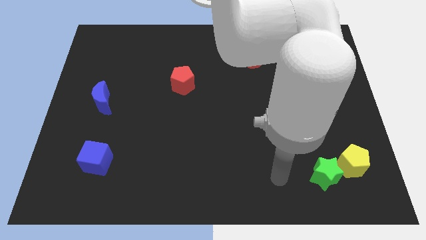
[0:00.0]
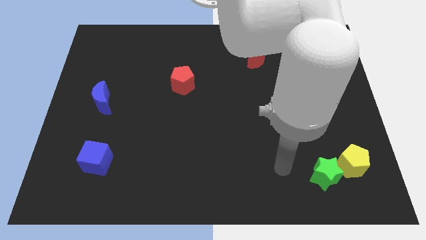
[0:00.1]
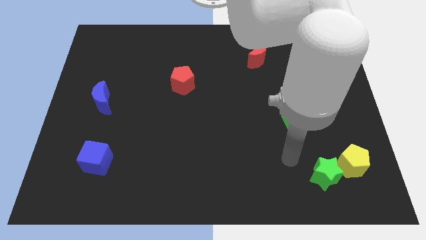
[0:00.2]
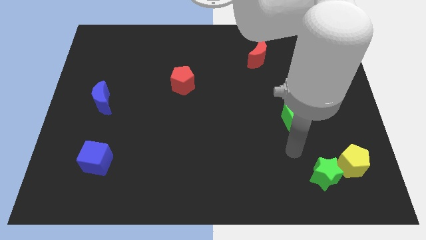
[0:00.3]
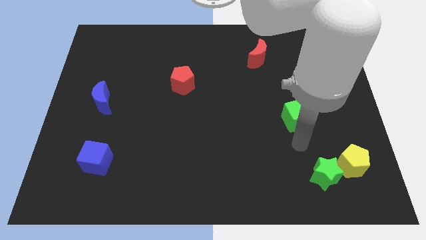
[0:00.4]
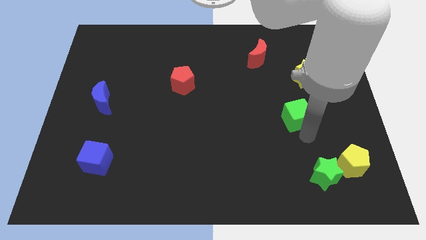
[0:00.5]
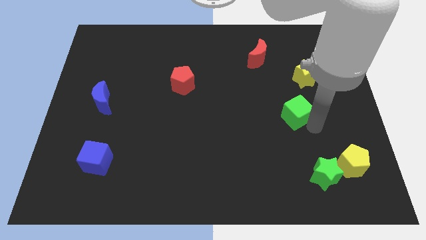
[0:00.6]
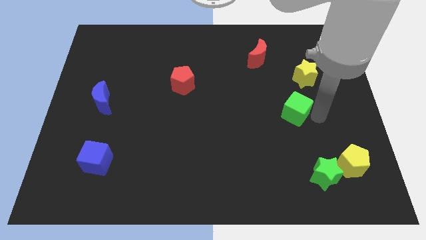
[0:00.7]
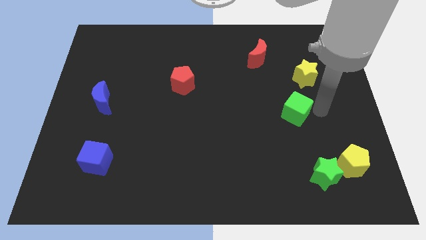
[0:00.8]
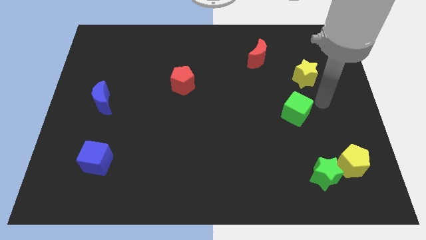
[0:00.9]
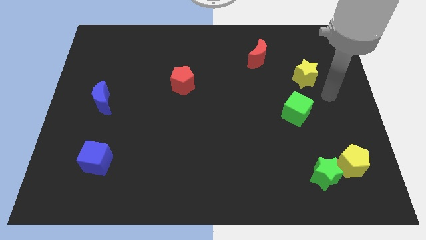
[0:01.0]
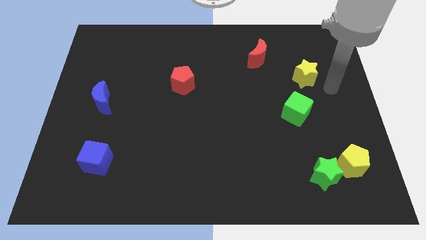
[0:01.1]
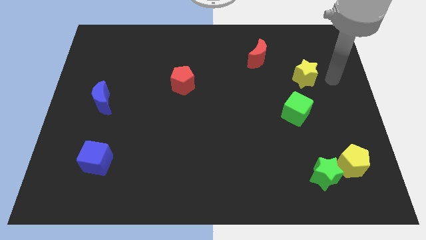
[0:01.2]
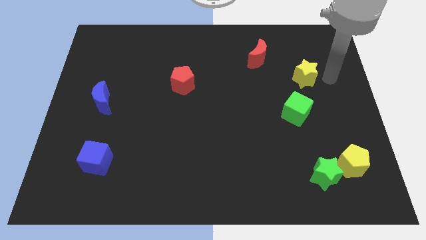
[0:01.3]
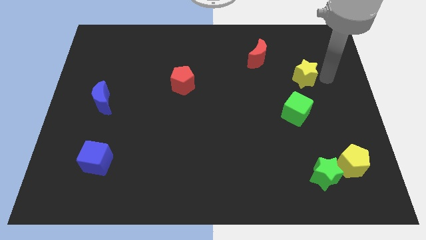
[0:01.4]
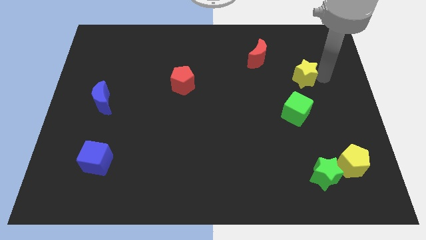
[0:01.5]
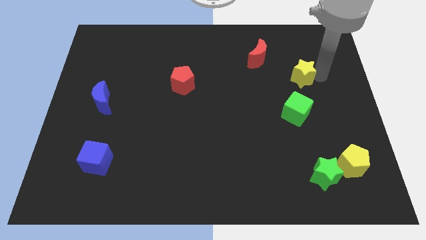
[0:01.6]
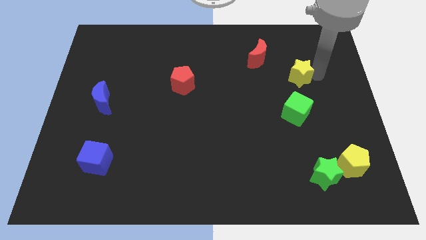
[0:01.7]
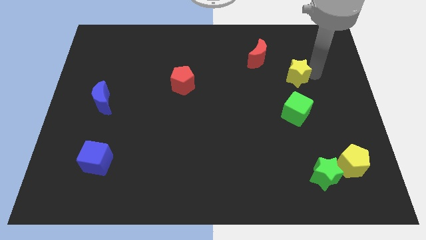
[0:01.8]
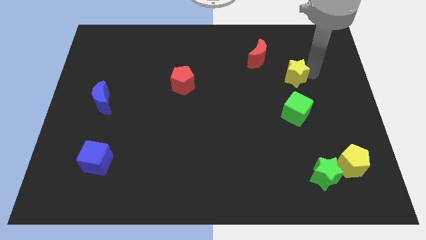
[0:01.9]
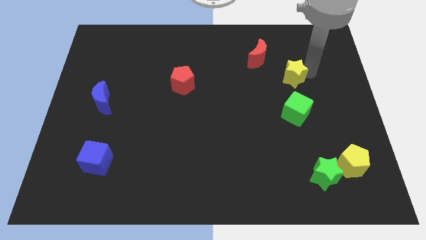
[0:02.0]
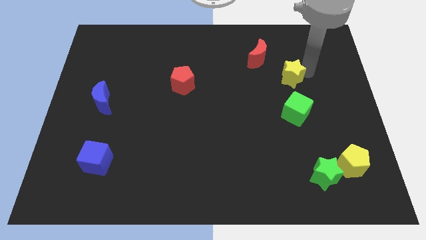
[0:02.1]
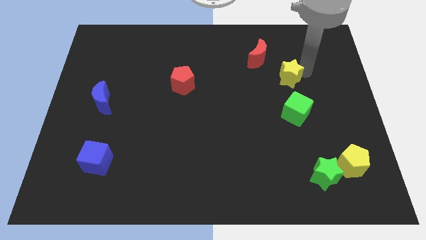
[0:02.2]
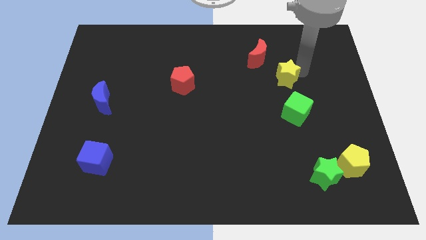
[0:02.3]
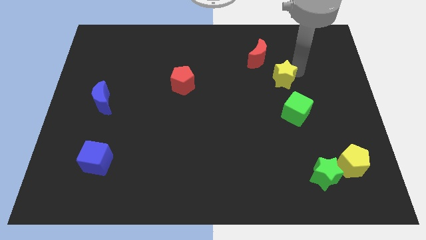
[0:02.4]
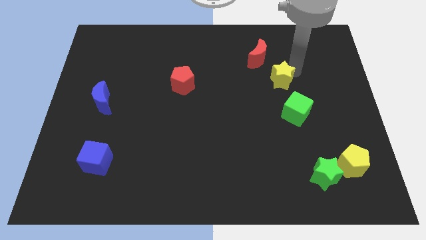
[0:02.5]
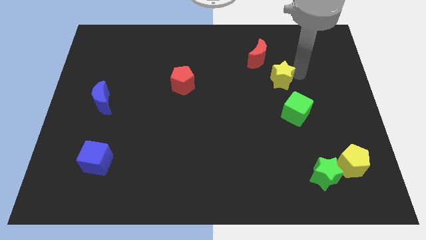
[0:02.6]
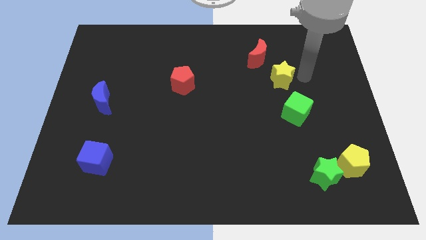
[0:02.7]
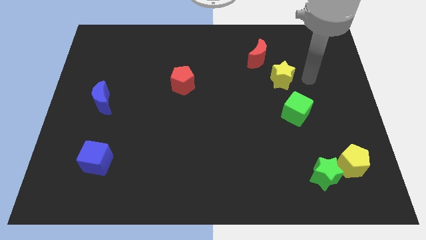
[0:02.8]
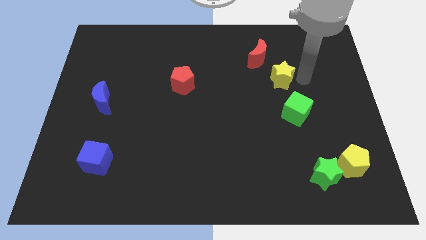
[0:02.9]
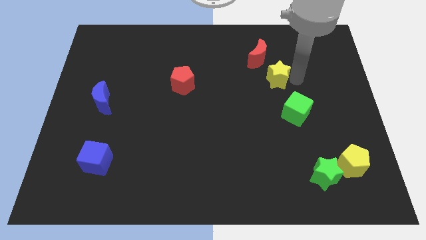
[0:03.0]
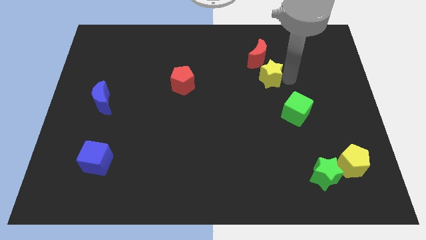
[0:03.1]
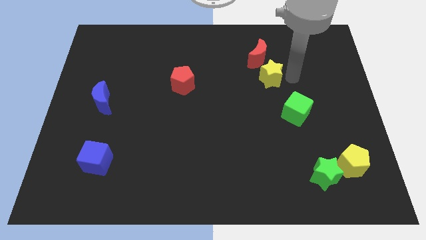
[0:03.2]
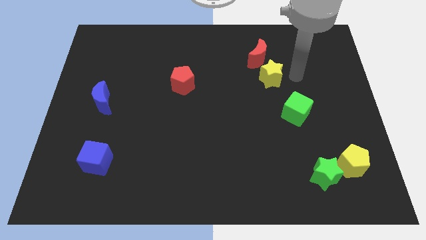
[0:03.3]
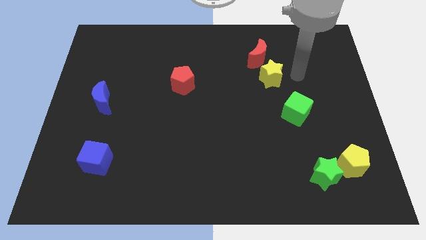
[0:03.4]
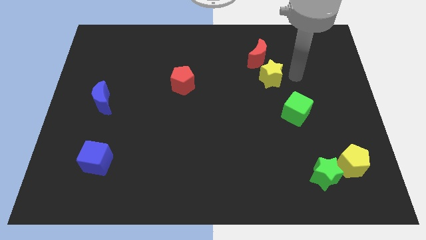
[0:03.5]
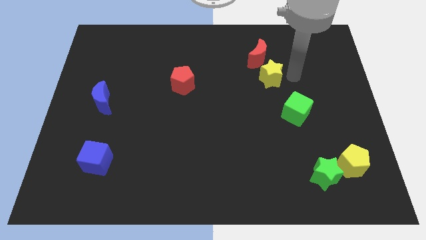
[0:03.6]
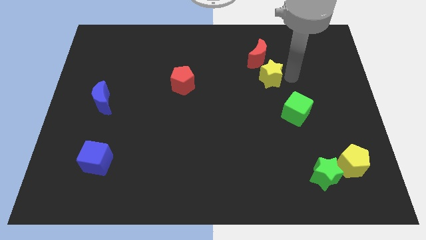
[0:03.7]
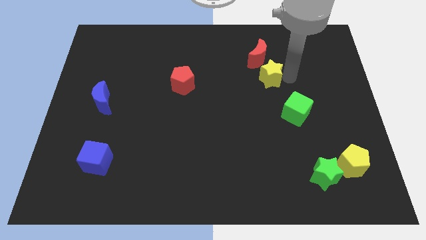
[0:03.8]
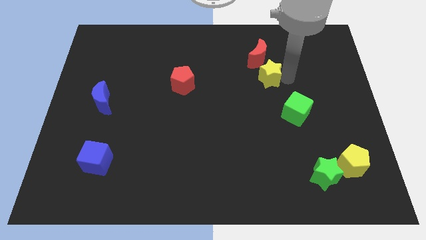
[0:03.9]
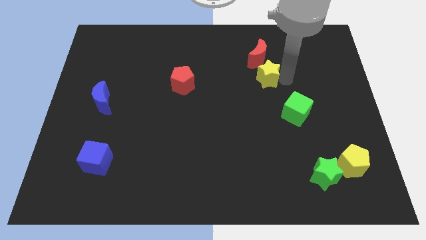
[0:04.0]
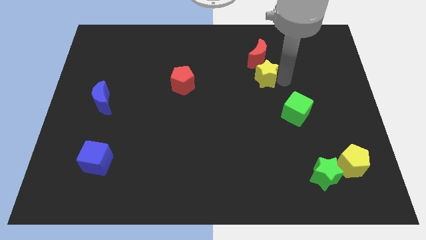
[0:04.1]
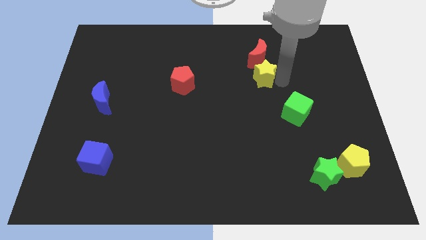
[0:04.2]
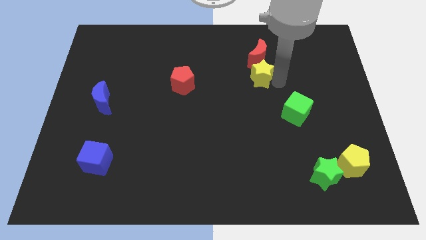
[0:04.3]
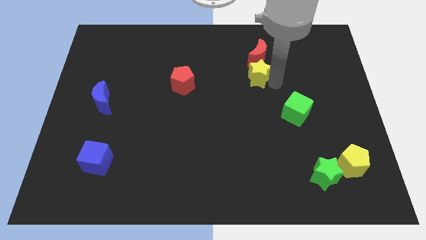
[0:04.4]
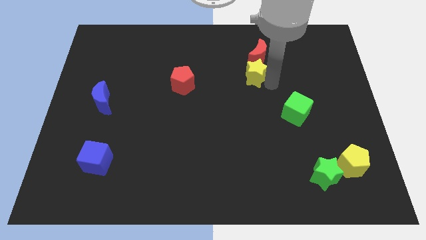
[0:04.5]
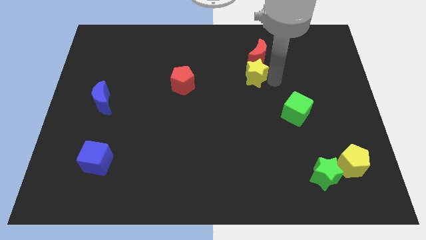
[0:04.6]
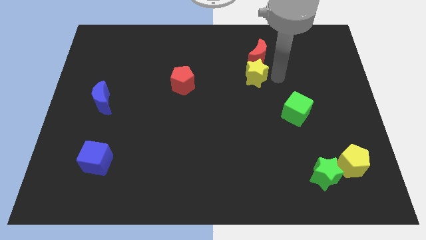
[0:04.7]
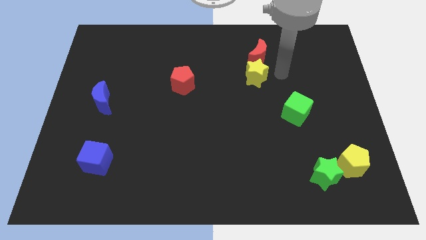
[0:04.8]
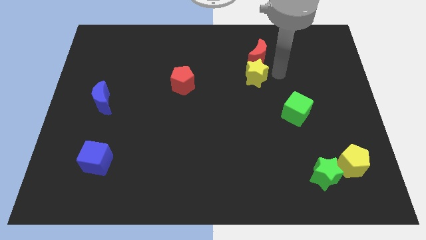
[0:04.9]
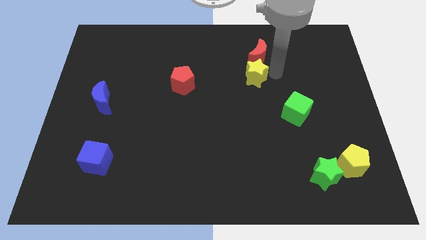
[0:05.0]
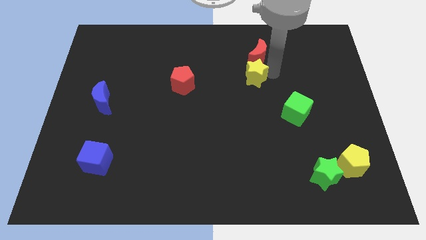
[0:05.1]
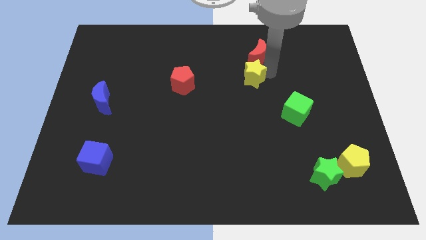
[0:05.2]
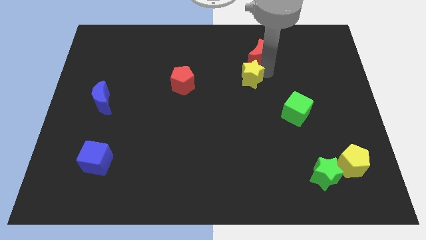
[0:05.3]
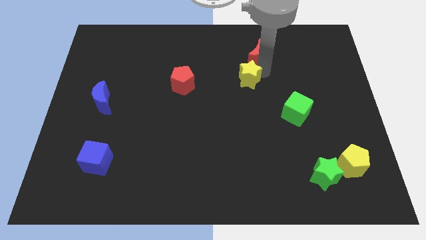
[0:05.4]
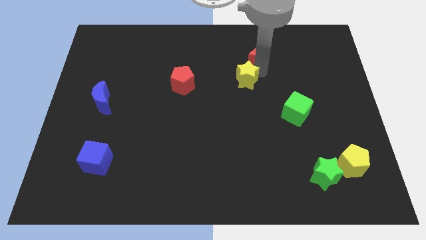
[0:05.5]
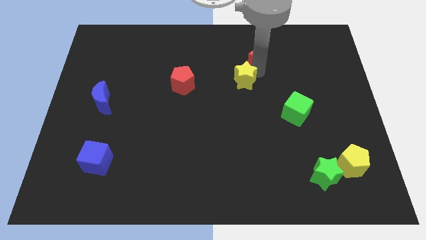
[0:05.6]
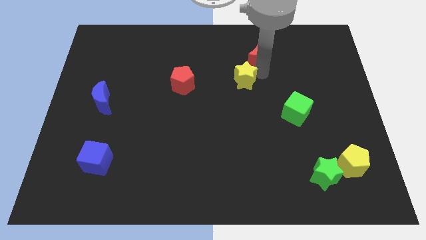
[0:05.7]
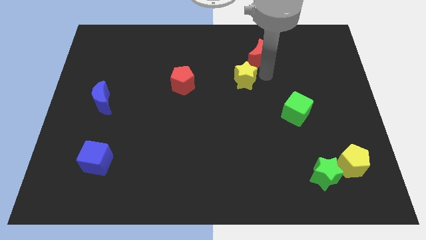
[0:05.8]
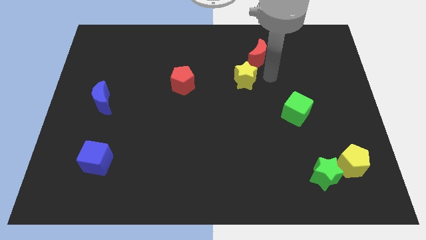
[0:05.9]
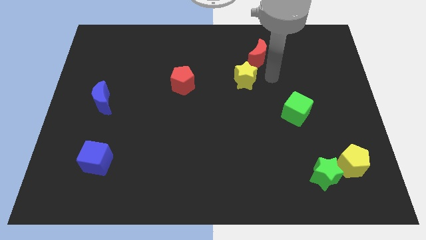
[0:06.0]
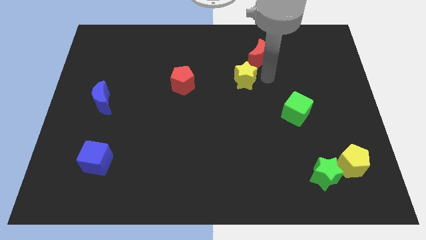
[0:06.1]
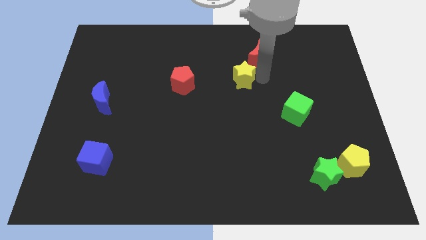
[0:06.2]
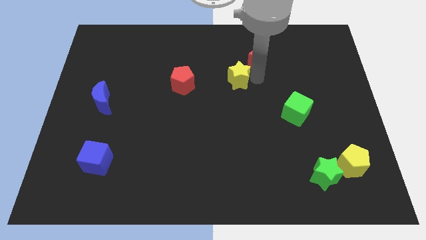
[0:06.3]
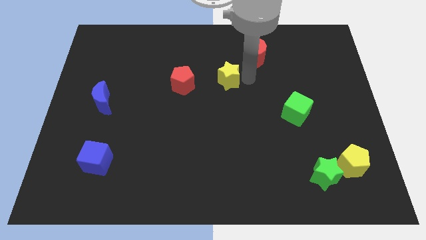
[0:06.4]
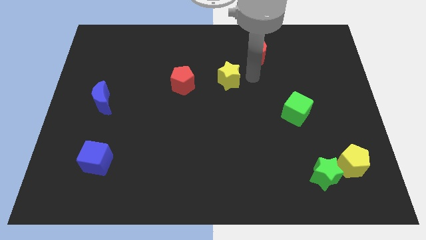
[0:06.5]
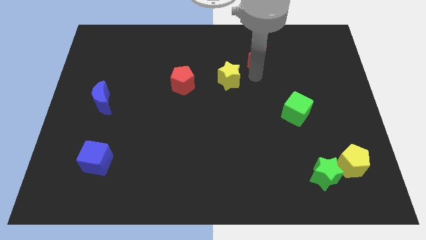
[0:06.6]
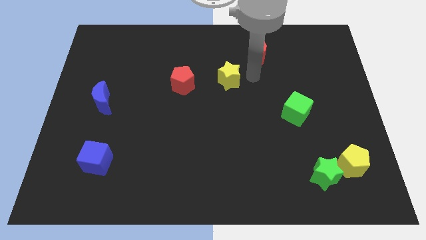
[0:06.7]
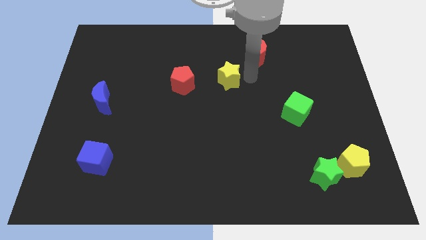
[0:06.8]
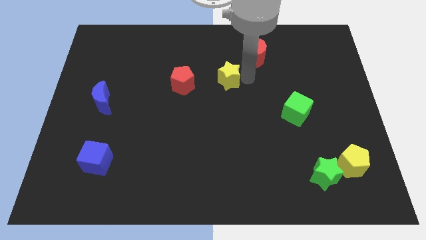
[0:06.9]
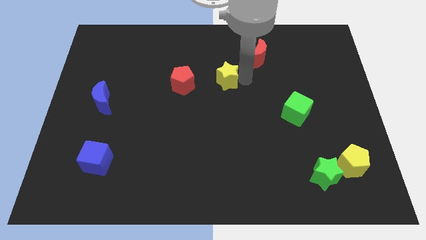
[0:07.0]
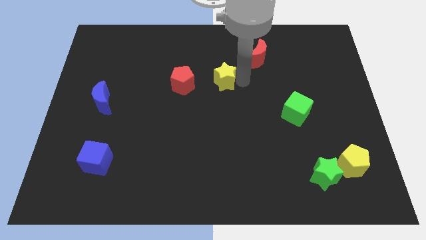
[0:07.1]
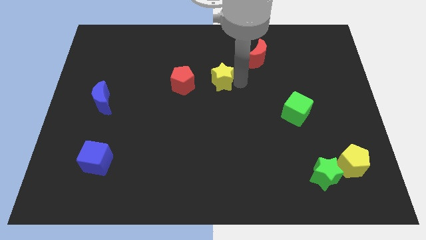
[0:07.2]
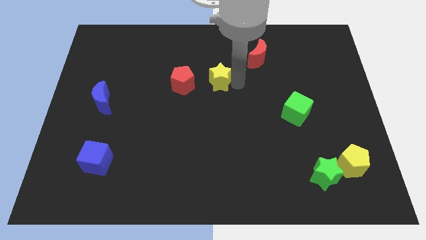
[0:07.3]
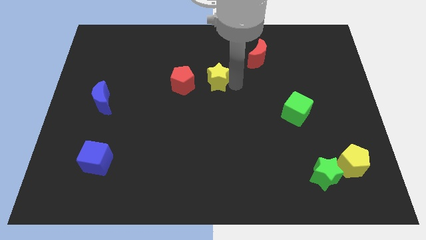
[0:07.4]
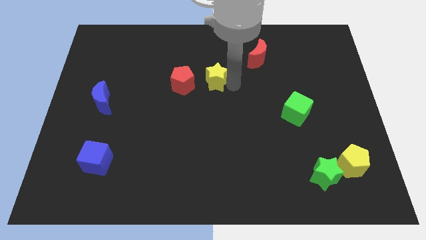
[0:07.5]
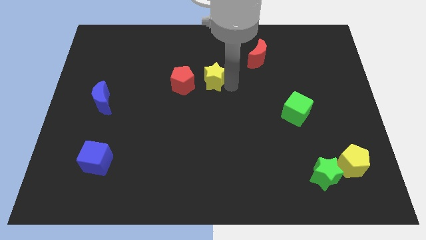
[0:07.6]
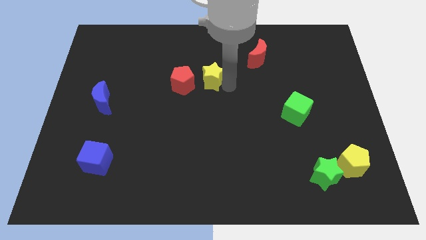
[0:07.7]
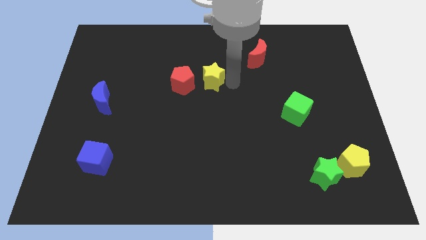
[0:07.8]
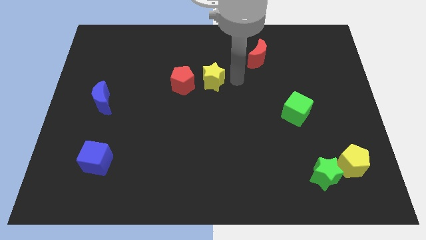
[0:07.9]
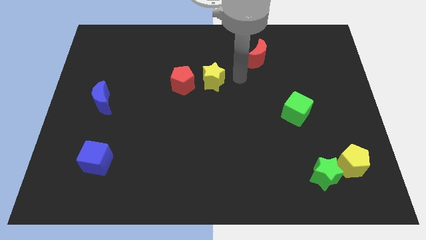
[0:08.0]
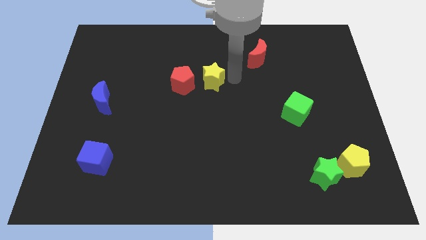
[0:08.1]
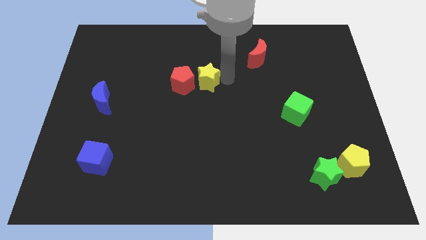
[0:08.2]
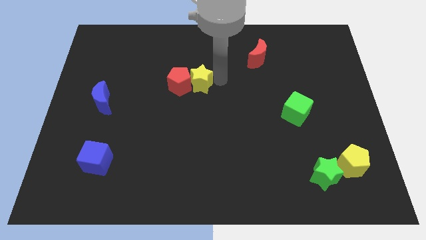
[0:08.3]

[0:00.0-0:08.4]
put the yellow star to the red pentagon
